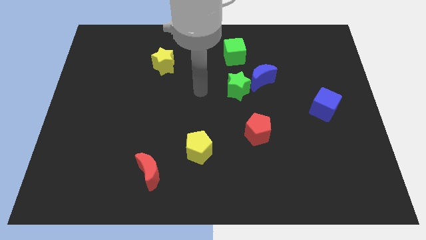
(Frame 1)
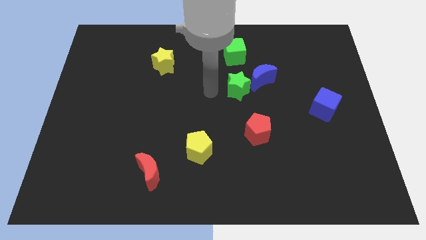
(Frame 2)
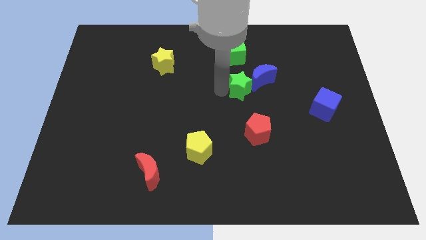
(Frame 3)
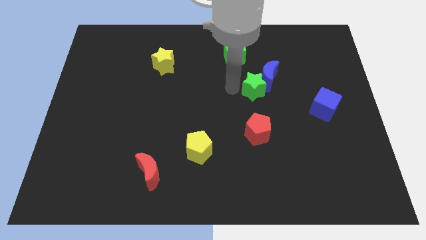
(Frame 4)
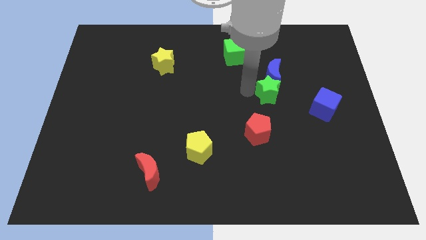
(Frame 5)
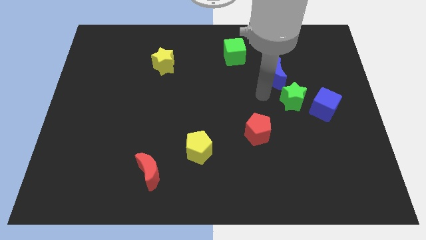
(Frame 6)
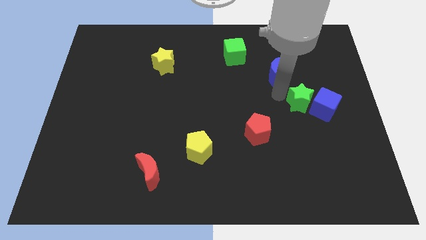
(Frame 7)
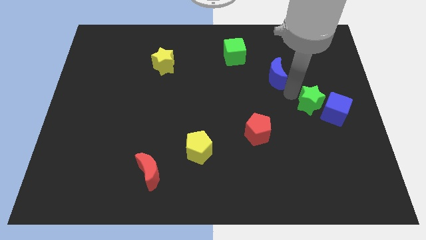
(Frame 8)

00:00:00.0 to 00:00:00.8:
move the blue moon away from the green star

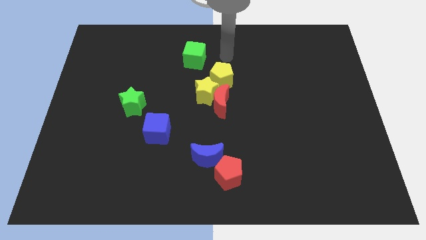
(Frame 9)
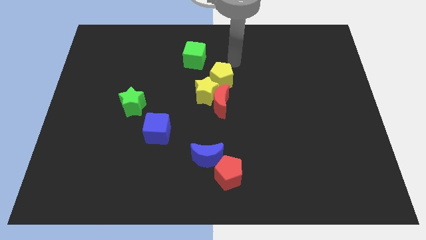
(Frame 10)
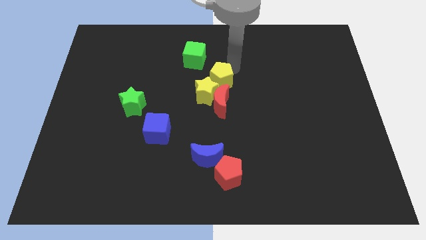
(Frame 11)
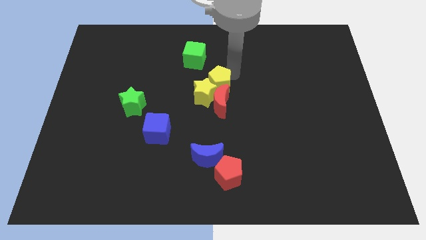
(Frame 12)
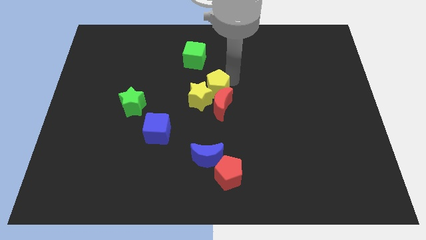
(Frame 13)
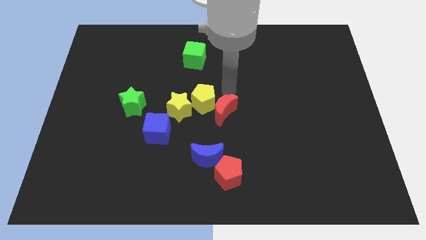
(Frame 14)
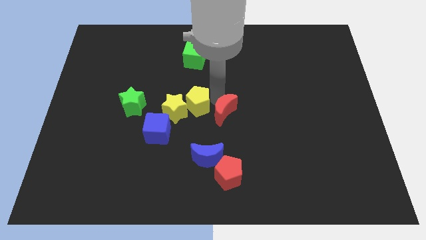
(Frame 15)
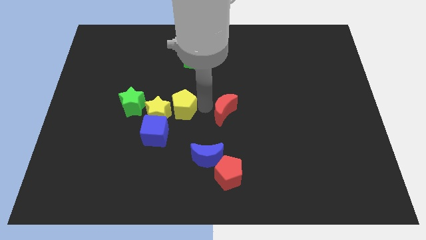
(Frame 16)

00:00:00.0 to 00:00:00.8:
separate the yellow star from the red moon and yellow pentagon

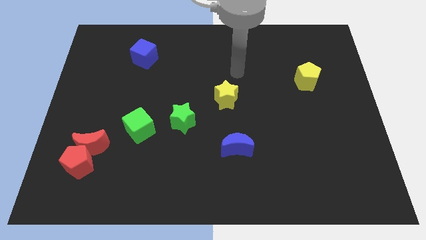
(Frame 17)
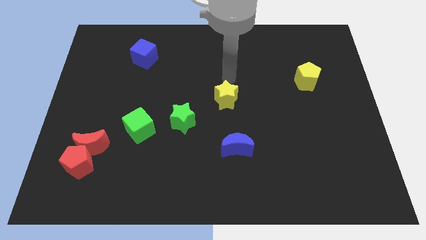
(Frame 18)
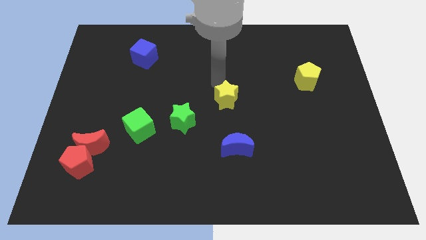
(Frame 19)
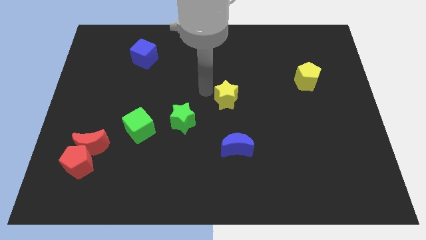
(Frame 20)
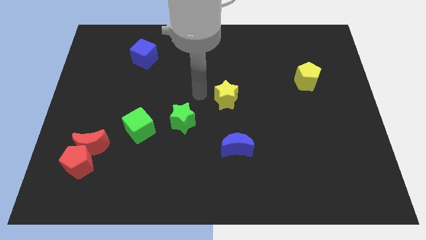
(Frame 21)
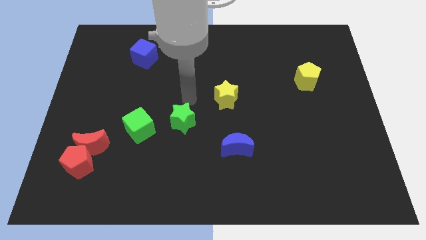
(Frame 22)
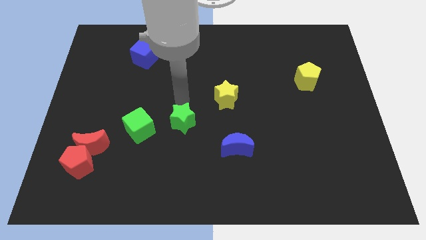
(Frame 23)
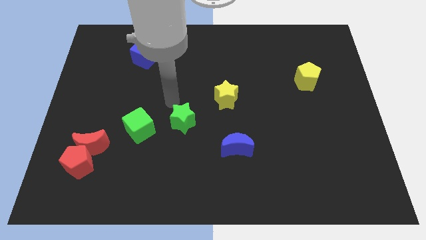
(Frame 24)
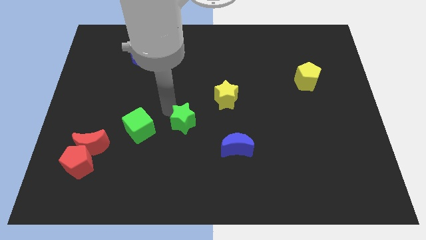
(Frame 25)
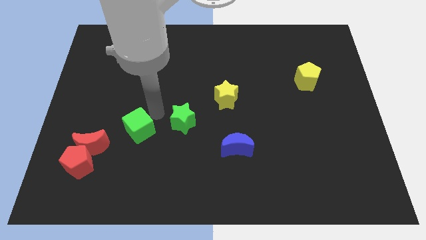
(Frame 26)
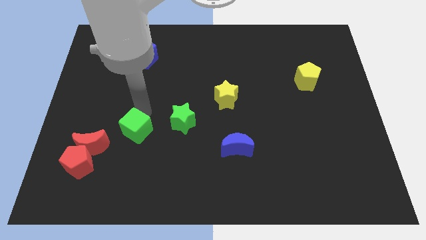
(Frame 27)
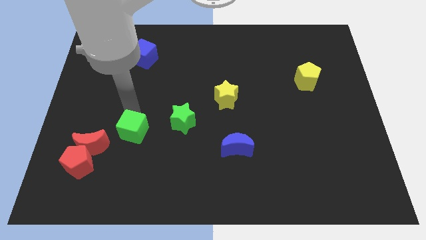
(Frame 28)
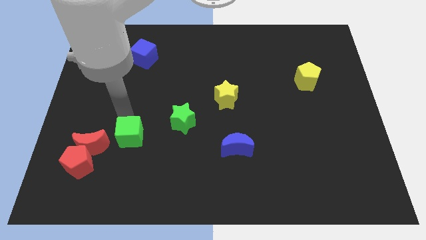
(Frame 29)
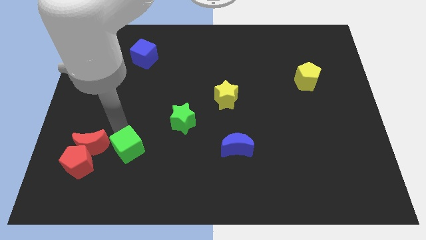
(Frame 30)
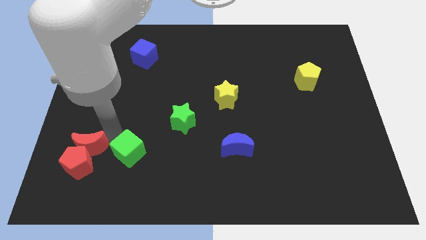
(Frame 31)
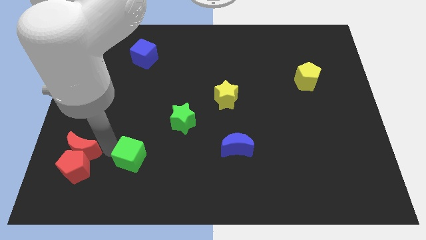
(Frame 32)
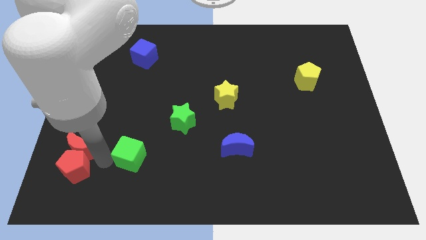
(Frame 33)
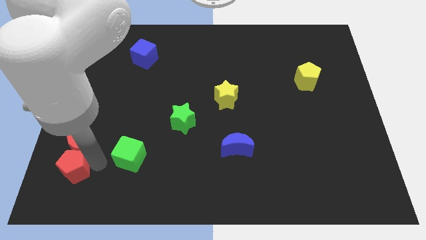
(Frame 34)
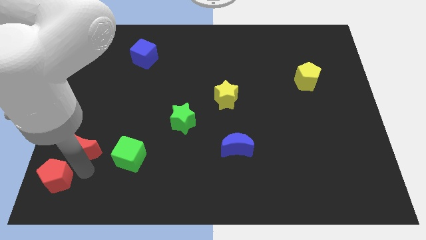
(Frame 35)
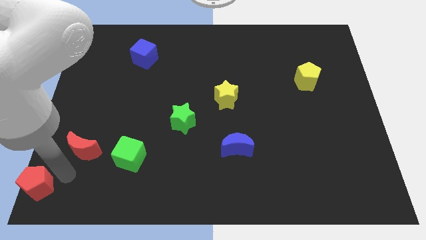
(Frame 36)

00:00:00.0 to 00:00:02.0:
separate the red moon from the red pentagon

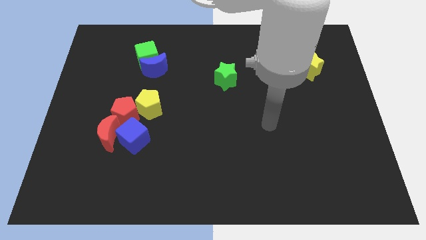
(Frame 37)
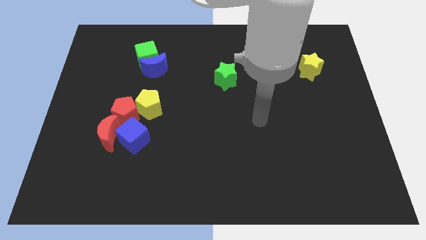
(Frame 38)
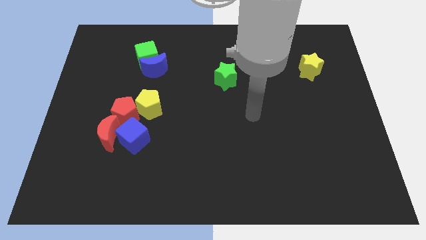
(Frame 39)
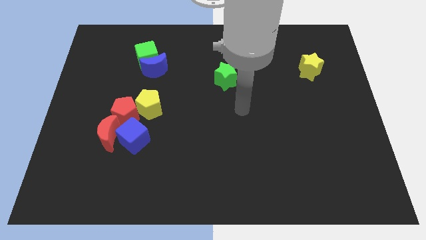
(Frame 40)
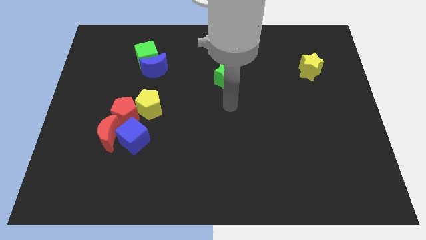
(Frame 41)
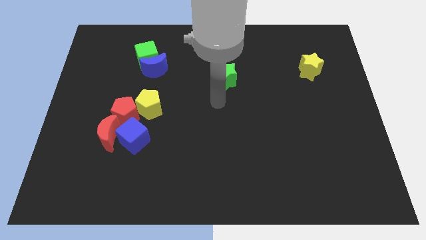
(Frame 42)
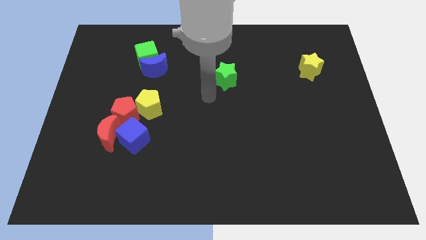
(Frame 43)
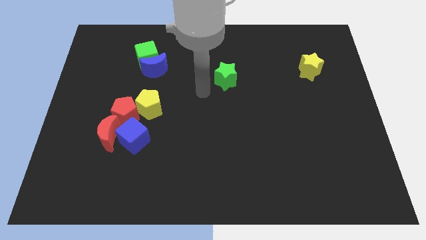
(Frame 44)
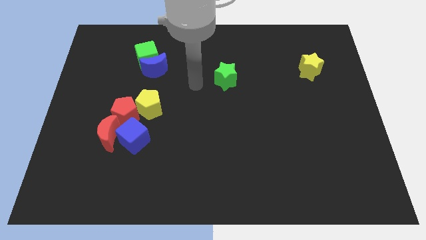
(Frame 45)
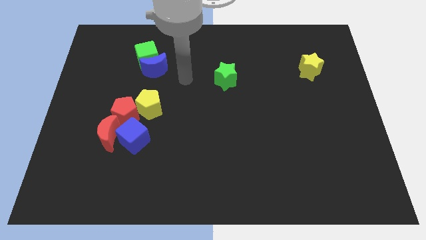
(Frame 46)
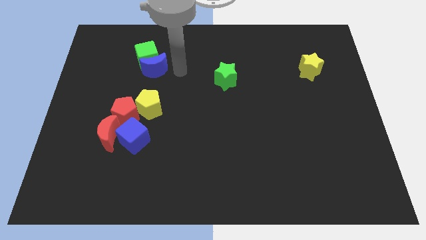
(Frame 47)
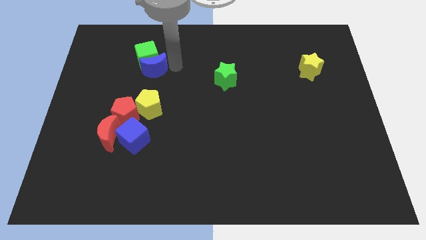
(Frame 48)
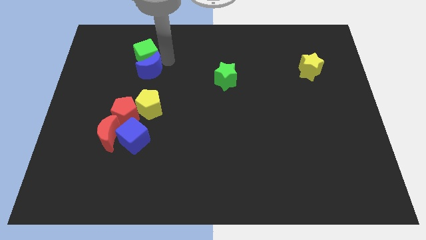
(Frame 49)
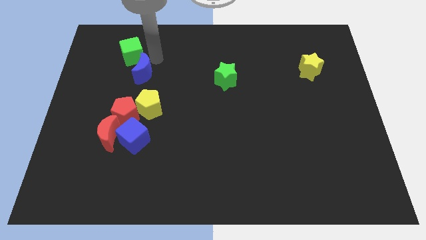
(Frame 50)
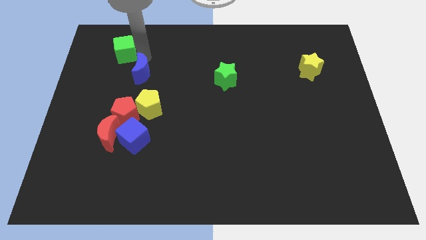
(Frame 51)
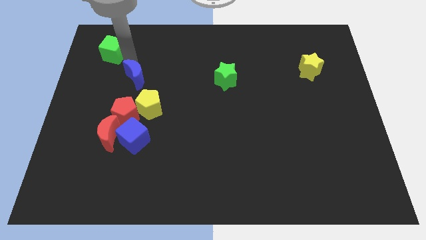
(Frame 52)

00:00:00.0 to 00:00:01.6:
pull the blue moon apart from the green cube

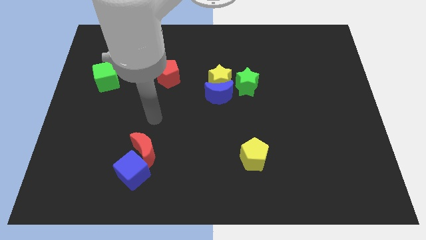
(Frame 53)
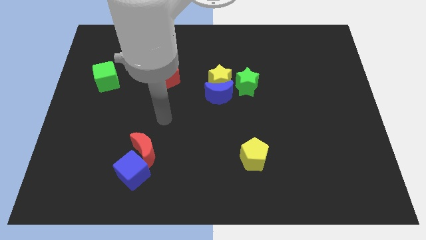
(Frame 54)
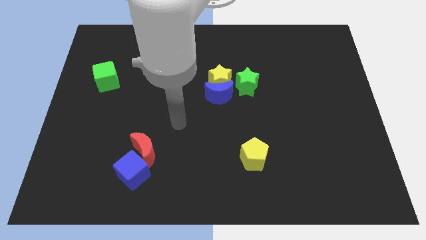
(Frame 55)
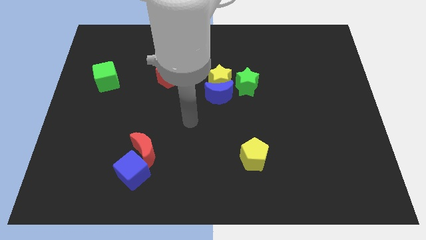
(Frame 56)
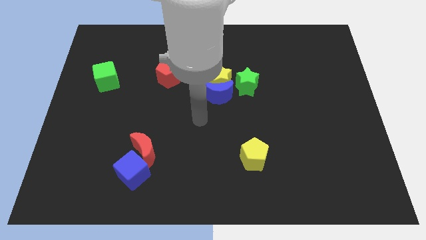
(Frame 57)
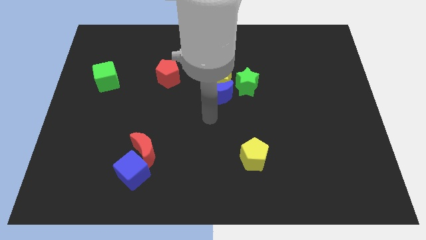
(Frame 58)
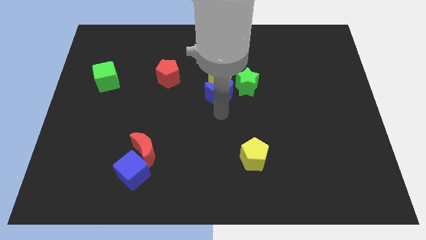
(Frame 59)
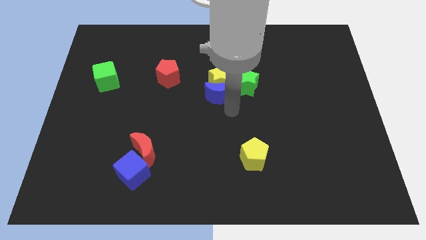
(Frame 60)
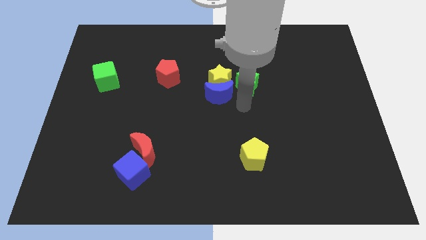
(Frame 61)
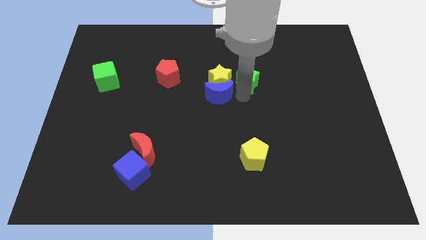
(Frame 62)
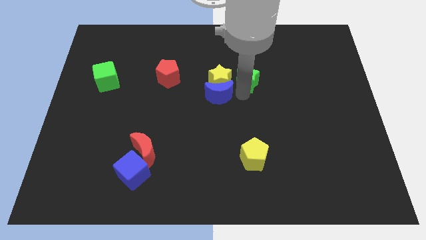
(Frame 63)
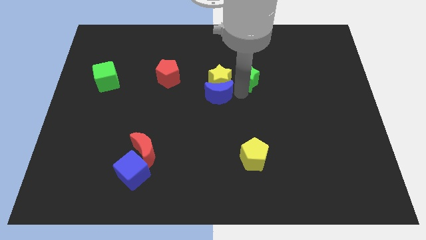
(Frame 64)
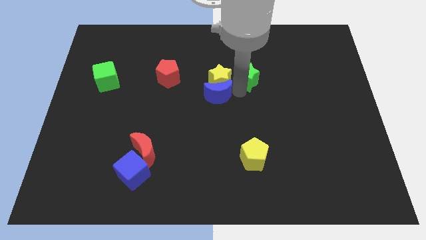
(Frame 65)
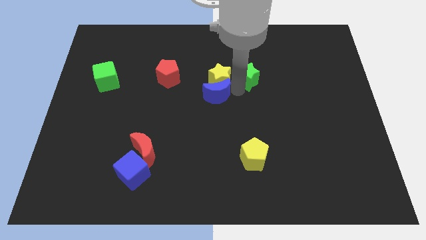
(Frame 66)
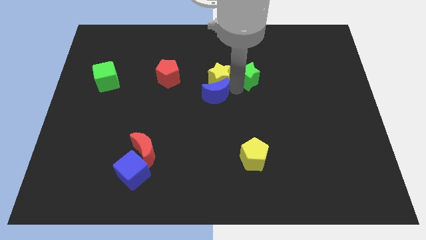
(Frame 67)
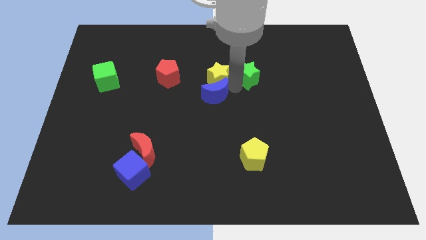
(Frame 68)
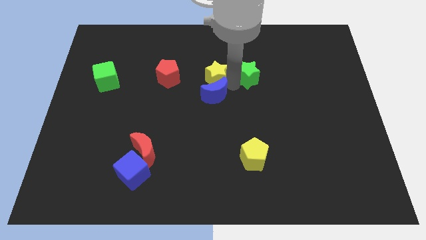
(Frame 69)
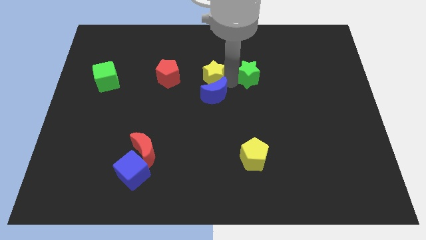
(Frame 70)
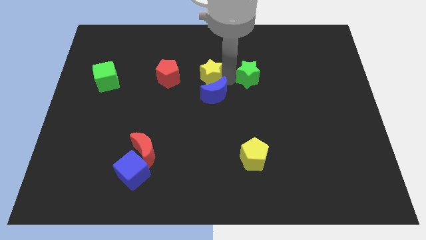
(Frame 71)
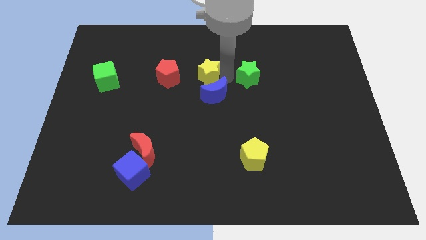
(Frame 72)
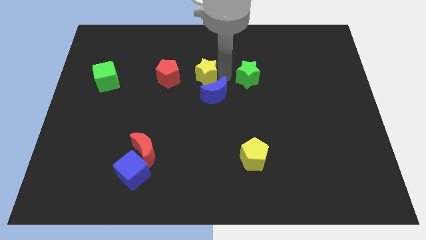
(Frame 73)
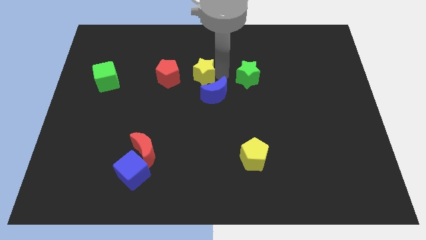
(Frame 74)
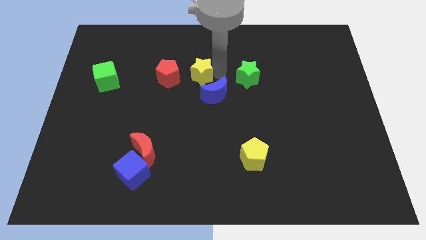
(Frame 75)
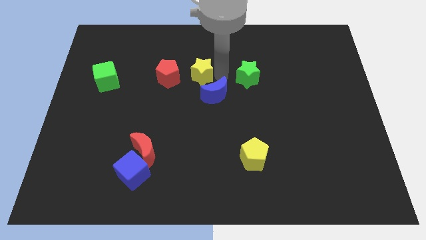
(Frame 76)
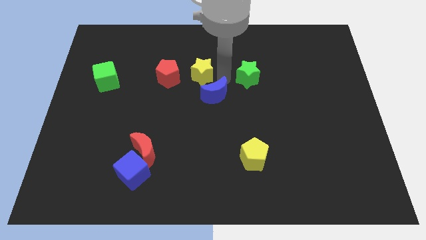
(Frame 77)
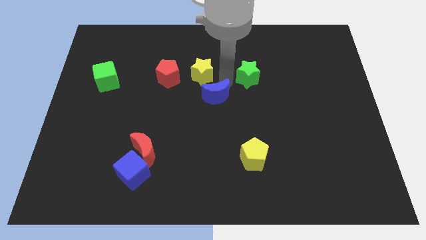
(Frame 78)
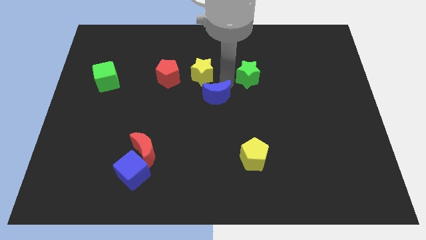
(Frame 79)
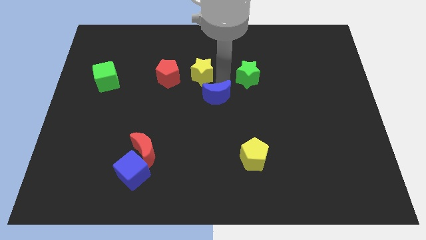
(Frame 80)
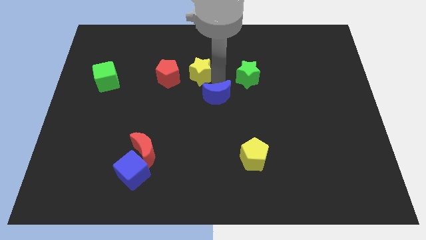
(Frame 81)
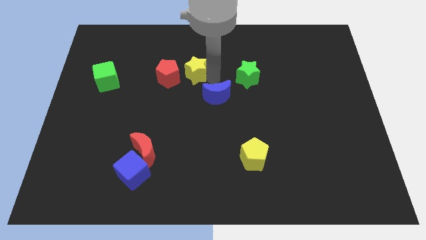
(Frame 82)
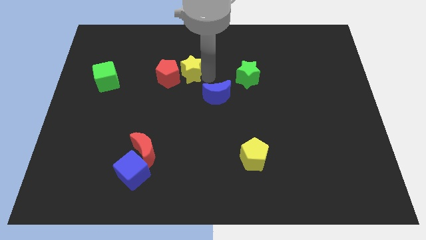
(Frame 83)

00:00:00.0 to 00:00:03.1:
move the yellow star away from the blue moon and green star

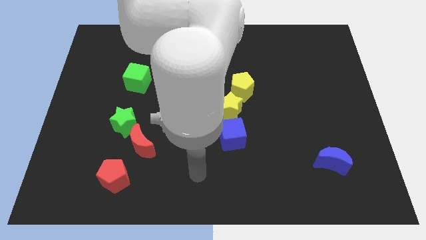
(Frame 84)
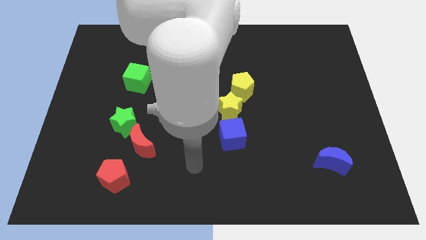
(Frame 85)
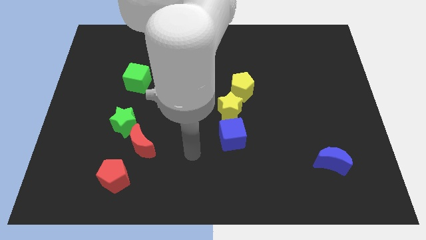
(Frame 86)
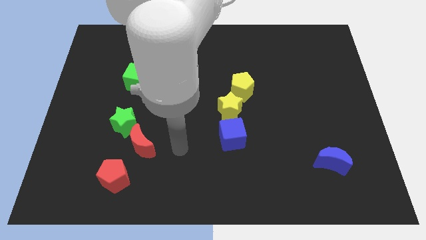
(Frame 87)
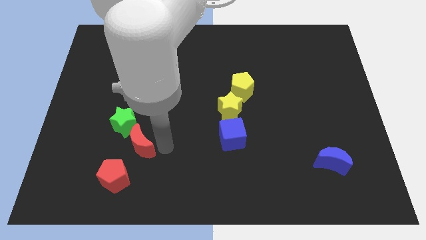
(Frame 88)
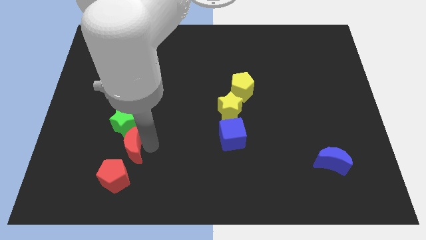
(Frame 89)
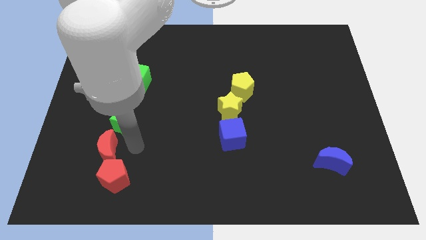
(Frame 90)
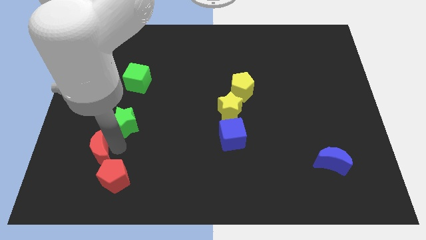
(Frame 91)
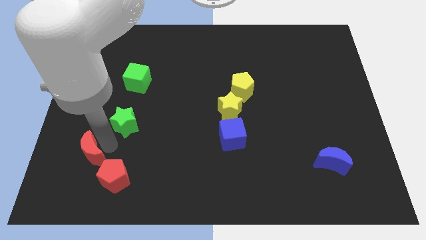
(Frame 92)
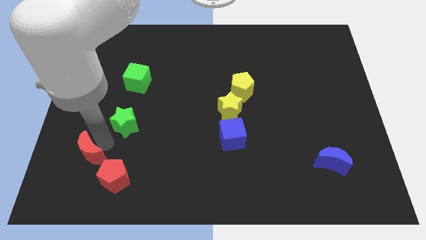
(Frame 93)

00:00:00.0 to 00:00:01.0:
separate the green star from the red moon
